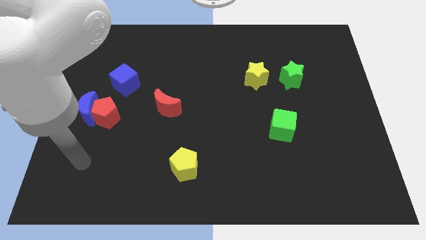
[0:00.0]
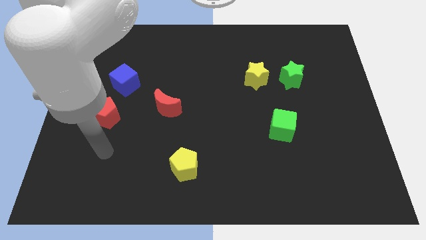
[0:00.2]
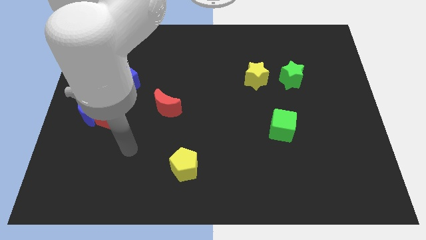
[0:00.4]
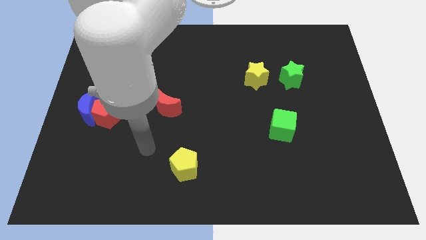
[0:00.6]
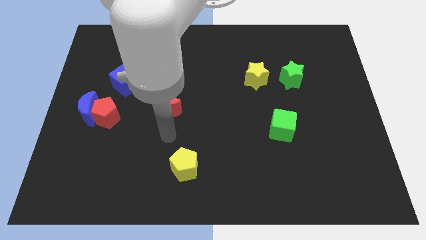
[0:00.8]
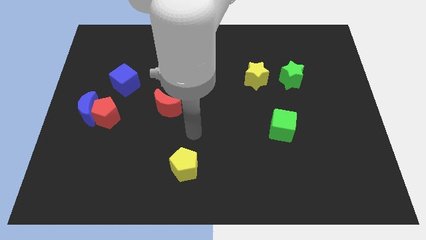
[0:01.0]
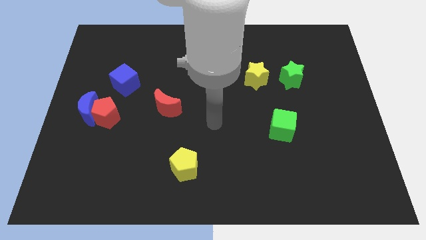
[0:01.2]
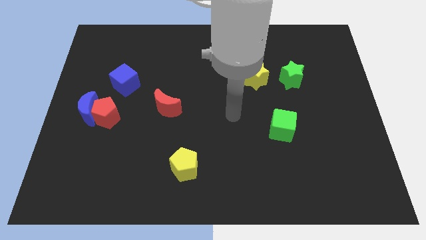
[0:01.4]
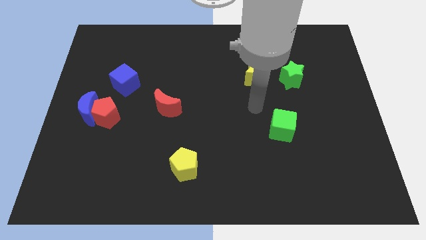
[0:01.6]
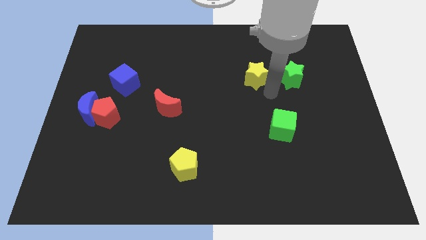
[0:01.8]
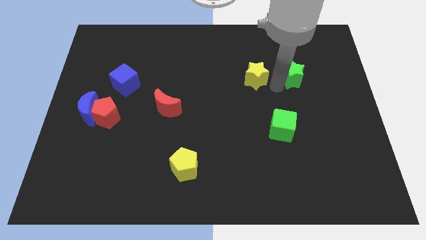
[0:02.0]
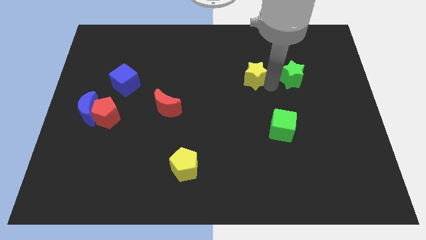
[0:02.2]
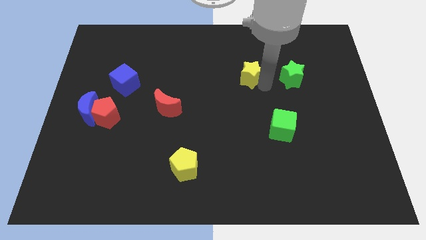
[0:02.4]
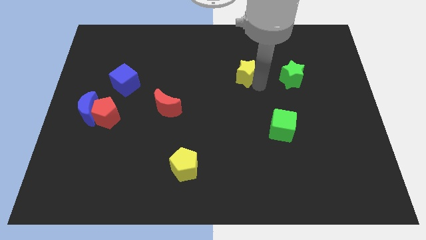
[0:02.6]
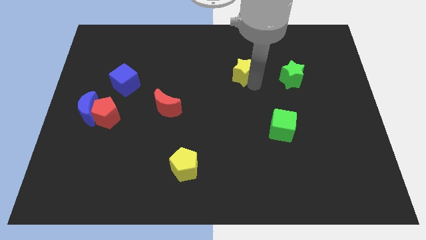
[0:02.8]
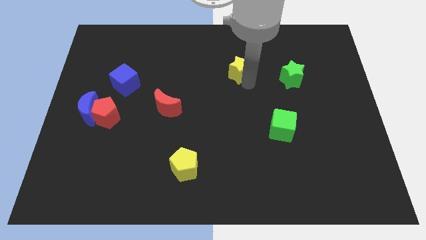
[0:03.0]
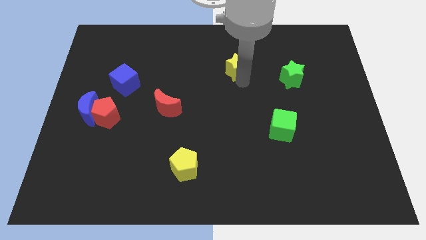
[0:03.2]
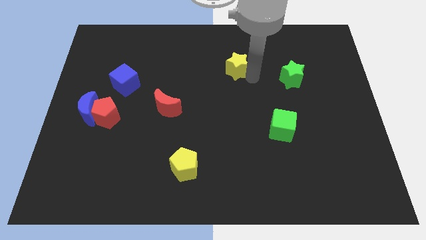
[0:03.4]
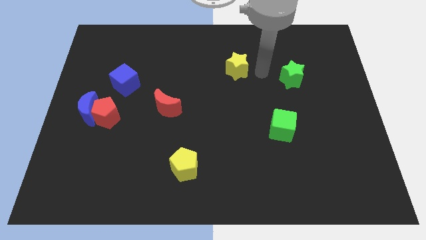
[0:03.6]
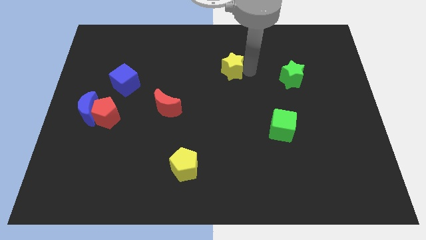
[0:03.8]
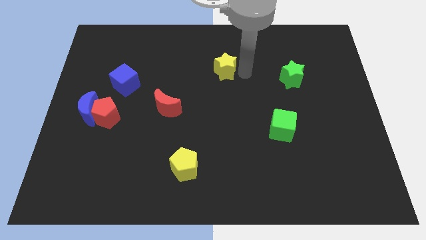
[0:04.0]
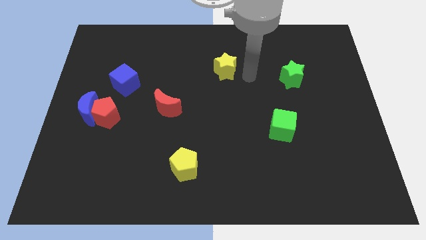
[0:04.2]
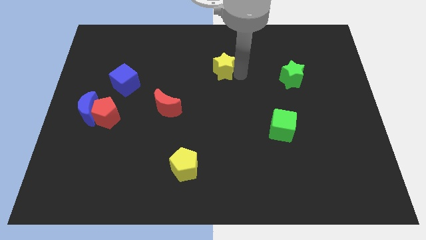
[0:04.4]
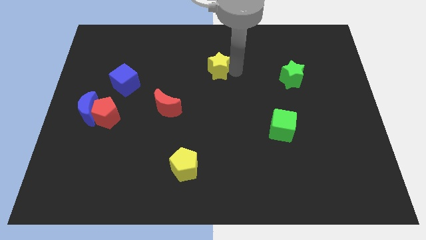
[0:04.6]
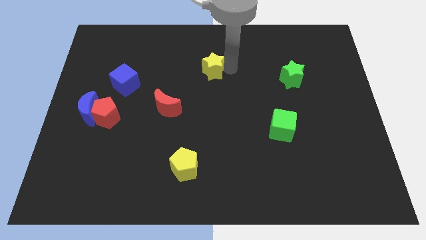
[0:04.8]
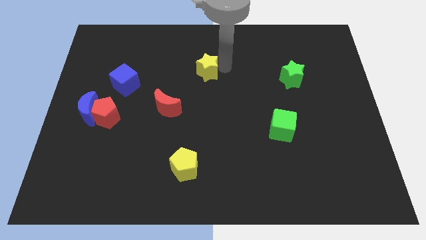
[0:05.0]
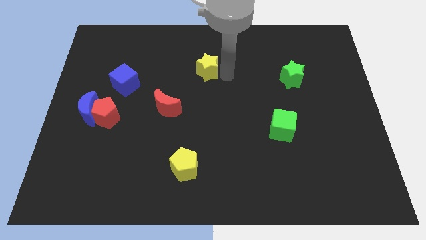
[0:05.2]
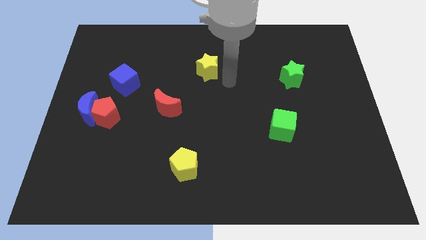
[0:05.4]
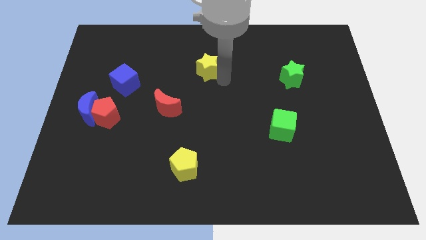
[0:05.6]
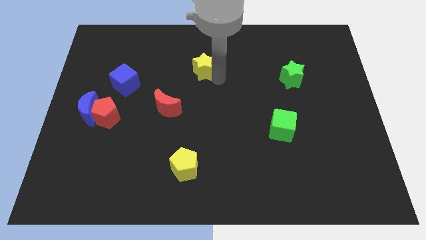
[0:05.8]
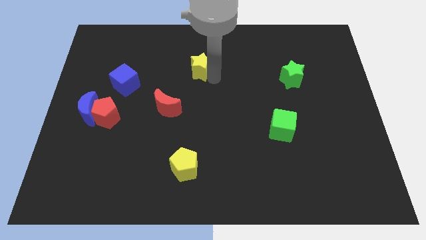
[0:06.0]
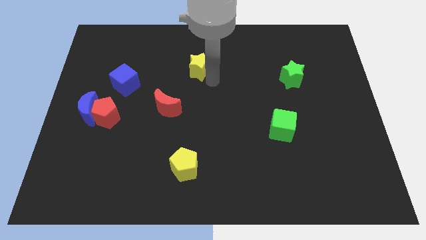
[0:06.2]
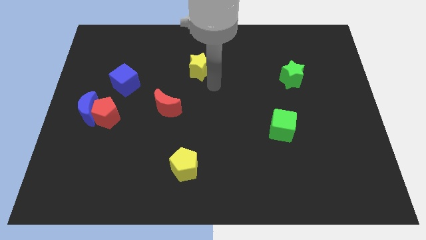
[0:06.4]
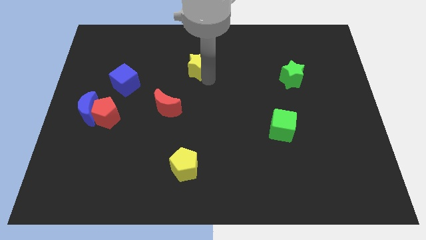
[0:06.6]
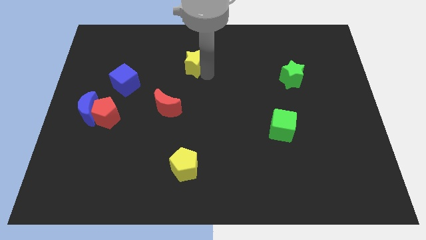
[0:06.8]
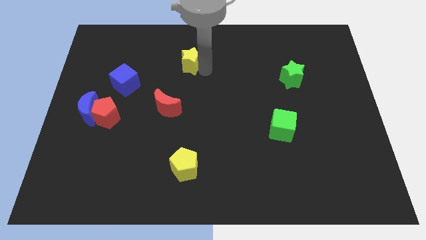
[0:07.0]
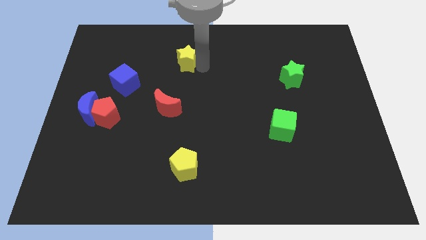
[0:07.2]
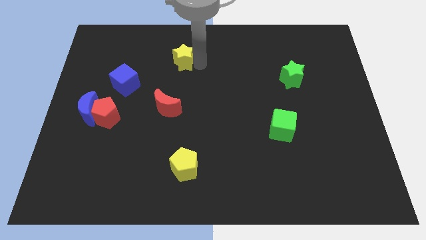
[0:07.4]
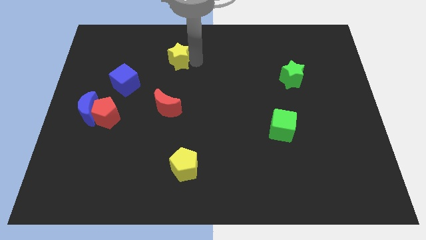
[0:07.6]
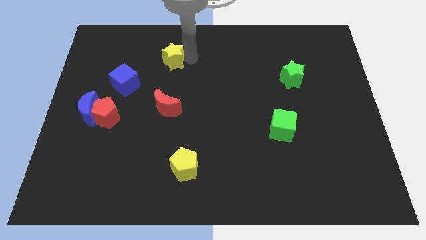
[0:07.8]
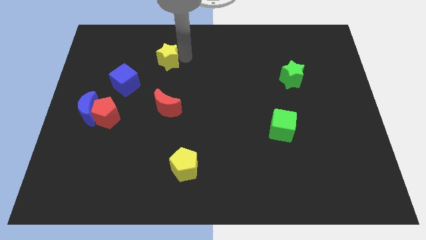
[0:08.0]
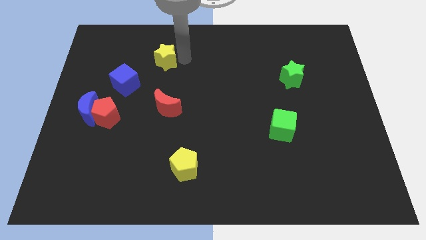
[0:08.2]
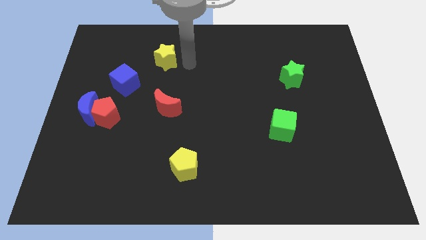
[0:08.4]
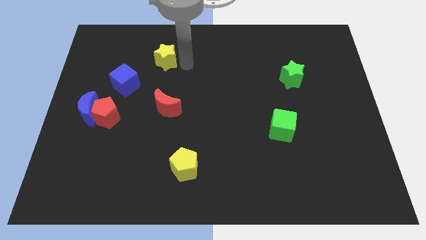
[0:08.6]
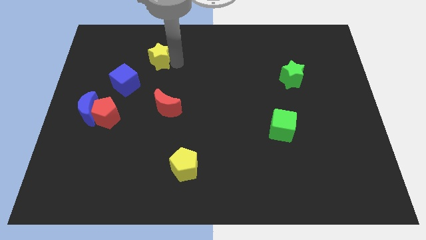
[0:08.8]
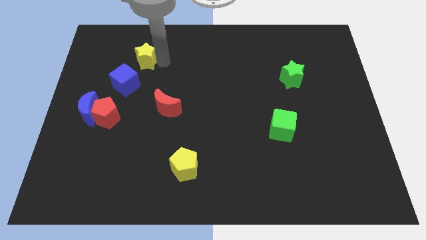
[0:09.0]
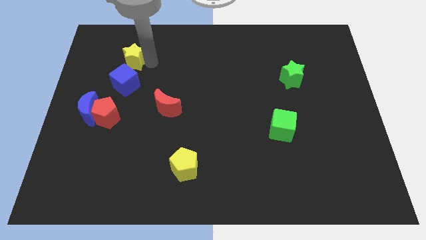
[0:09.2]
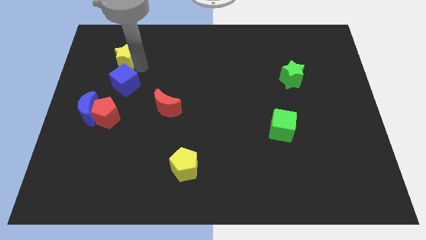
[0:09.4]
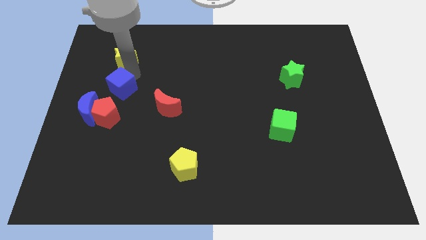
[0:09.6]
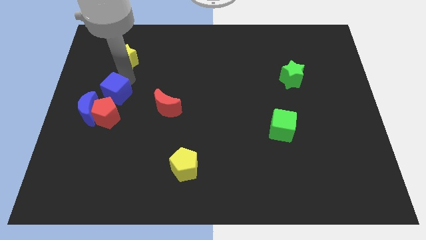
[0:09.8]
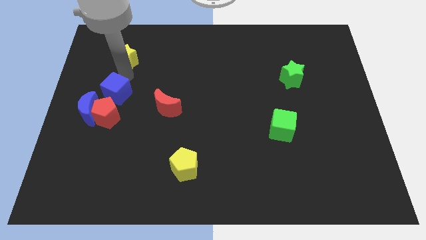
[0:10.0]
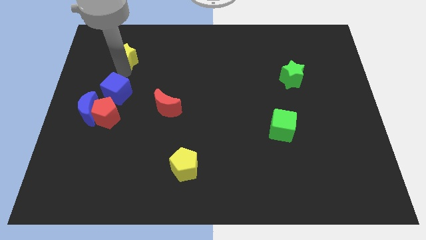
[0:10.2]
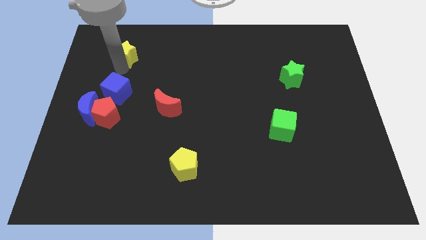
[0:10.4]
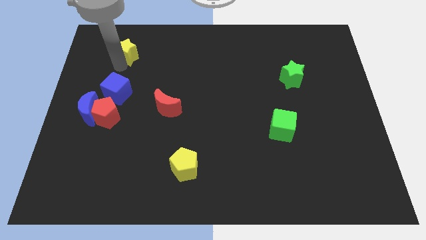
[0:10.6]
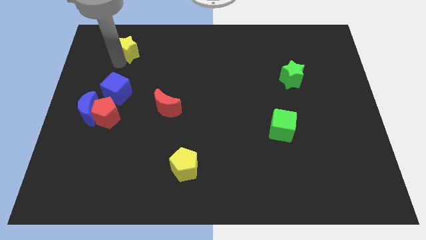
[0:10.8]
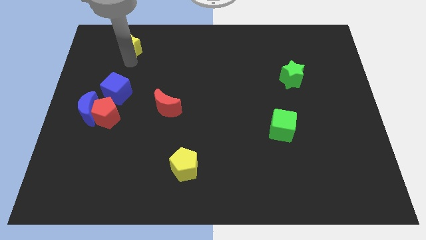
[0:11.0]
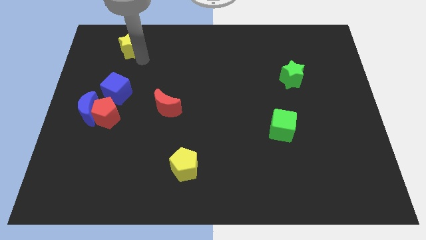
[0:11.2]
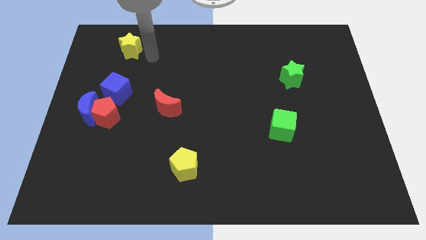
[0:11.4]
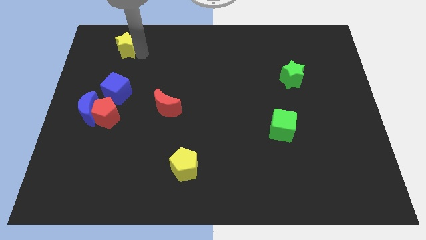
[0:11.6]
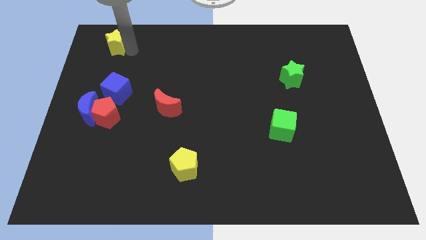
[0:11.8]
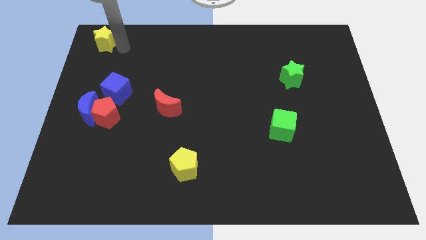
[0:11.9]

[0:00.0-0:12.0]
move the yellow star to the top left of the board

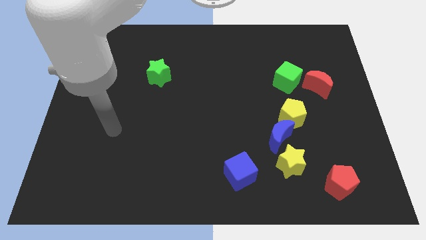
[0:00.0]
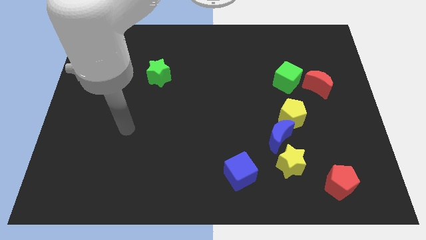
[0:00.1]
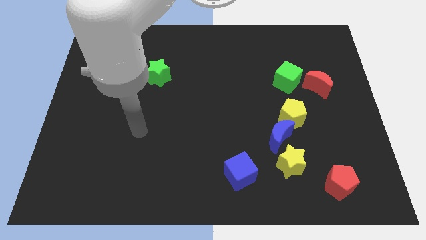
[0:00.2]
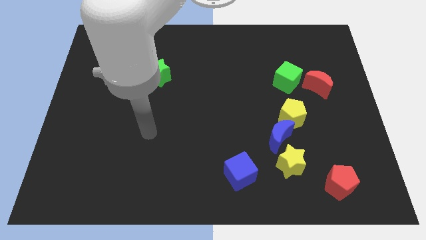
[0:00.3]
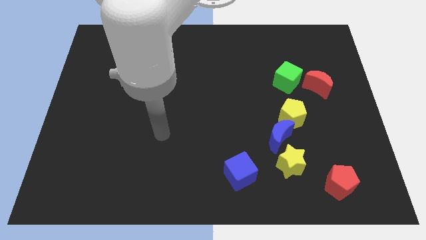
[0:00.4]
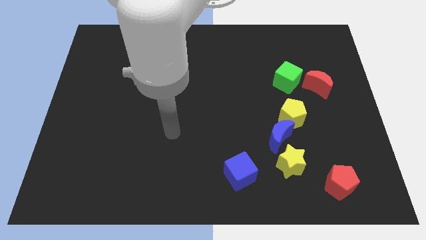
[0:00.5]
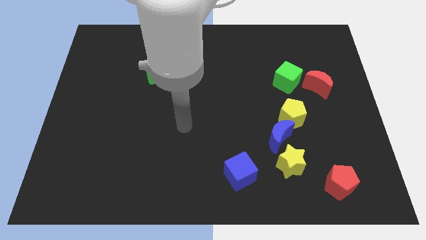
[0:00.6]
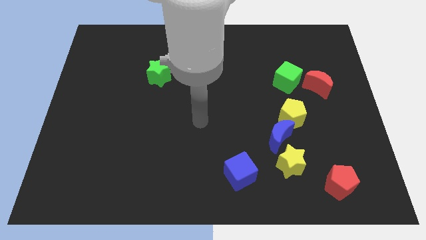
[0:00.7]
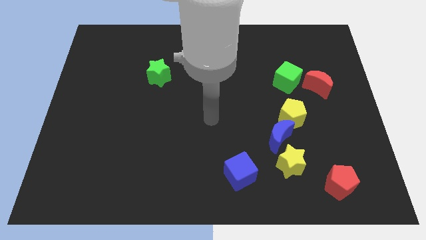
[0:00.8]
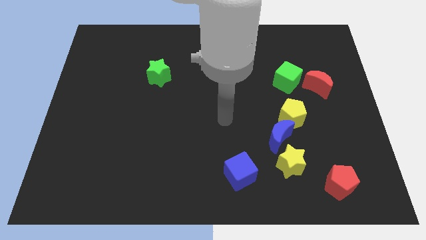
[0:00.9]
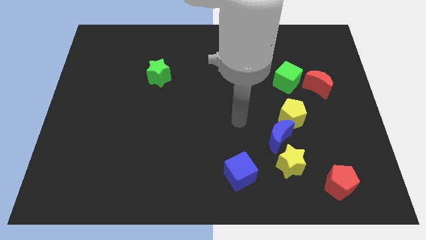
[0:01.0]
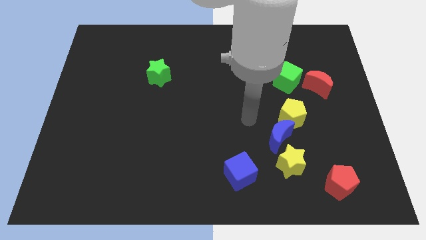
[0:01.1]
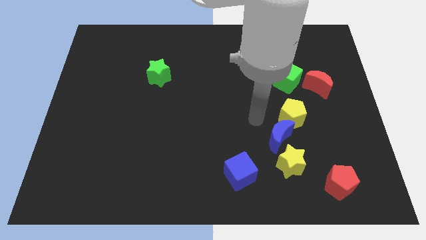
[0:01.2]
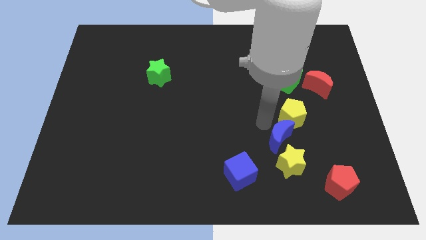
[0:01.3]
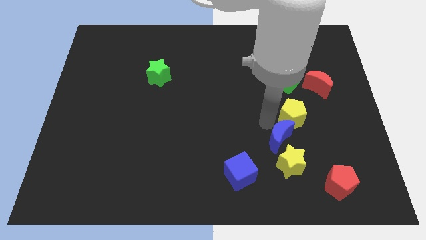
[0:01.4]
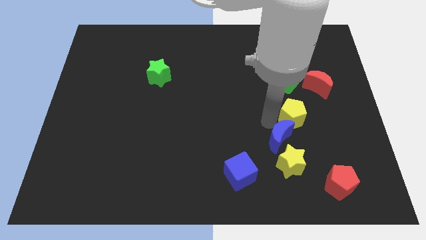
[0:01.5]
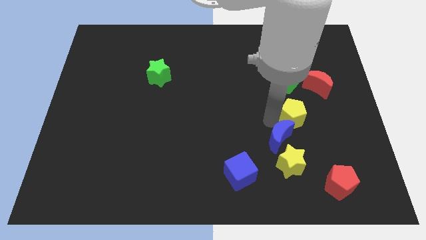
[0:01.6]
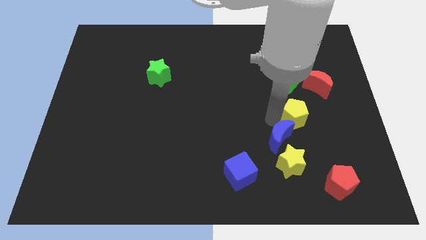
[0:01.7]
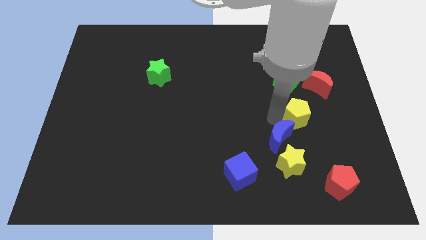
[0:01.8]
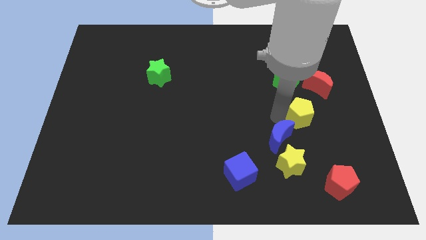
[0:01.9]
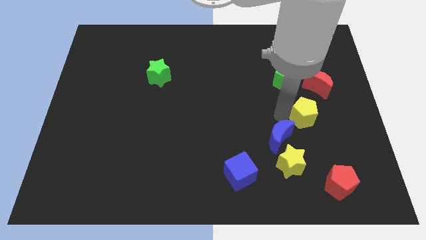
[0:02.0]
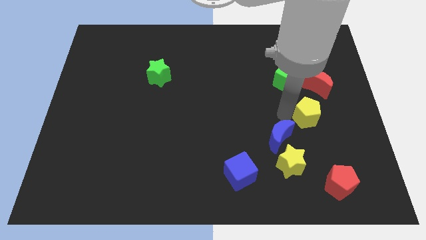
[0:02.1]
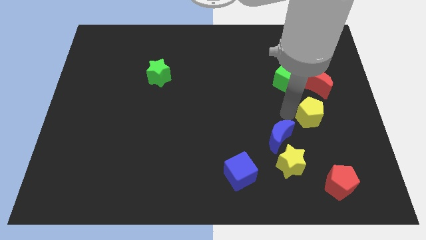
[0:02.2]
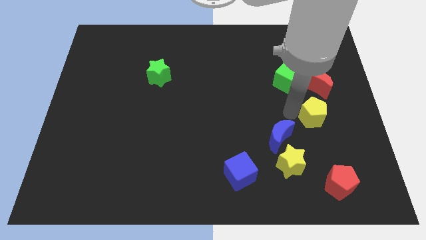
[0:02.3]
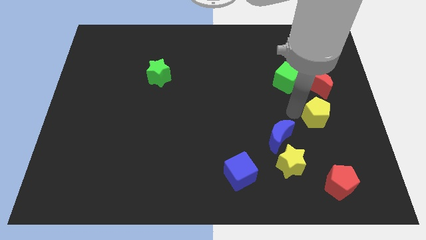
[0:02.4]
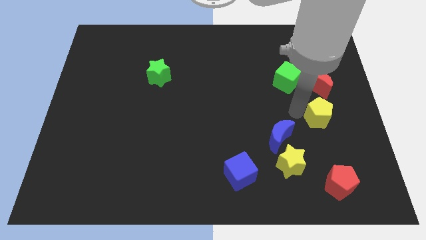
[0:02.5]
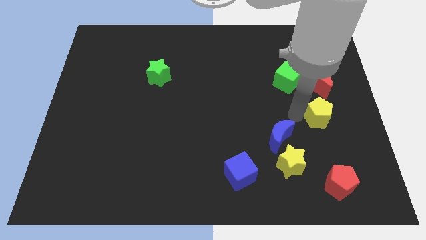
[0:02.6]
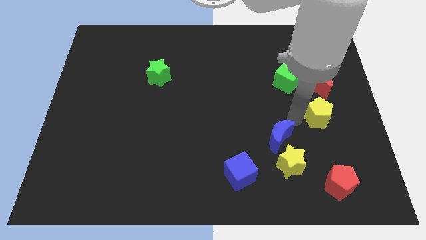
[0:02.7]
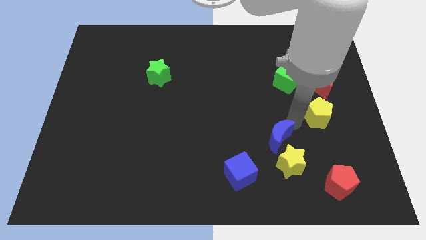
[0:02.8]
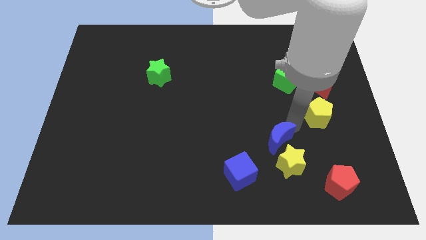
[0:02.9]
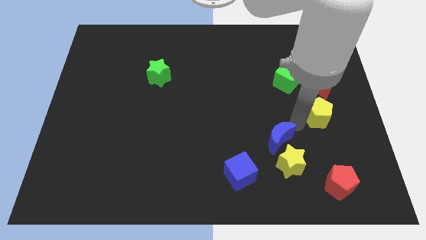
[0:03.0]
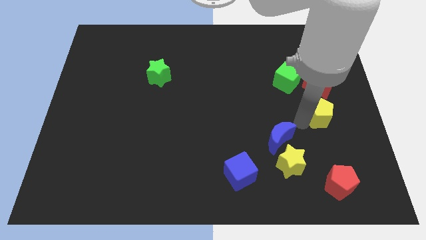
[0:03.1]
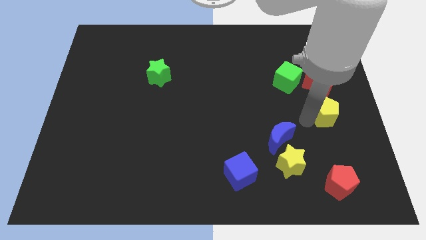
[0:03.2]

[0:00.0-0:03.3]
move the yellow pentagon to the right side
